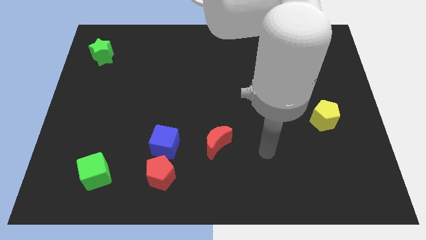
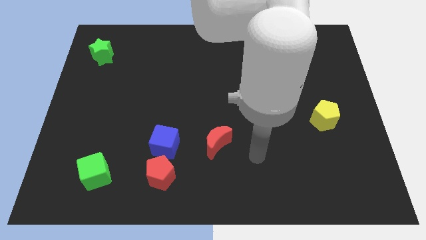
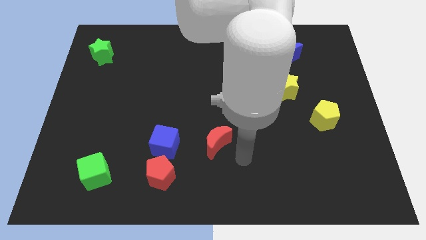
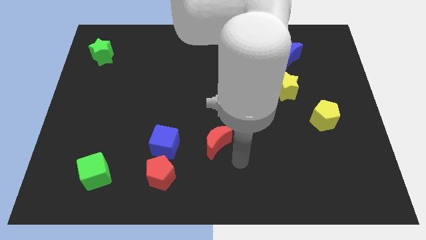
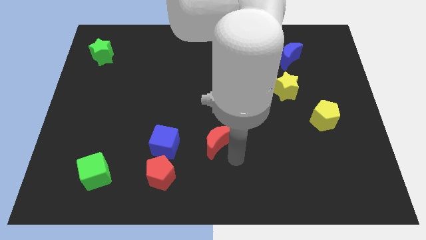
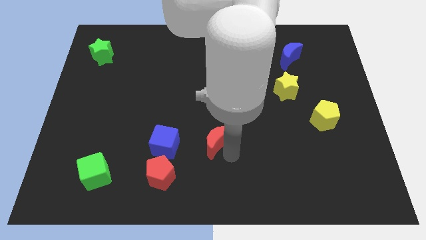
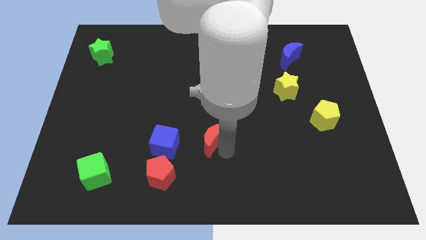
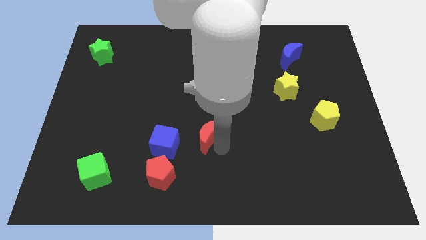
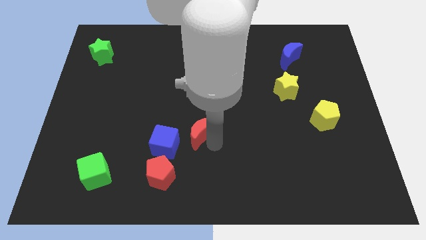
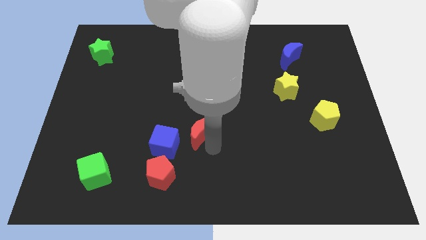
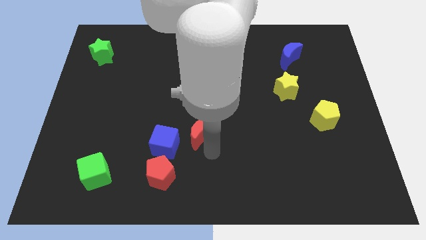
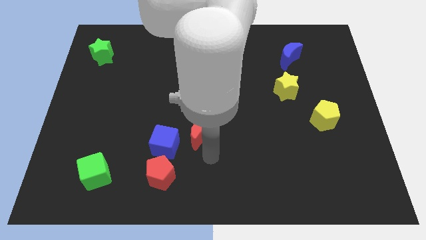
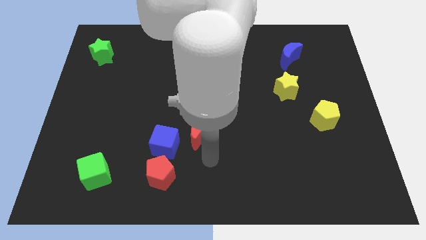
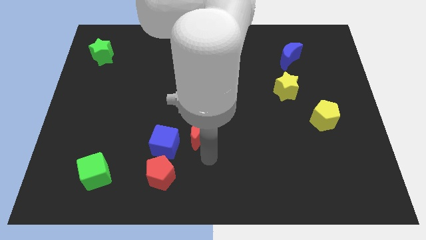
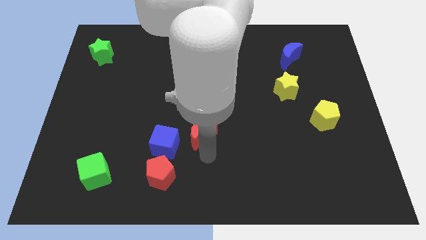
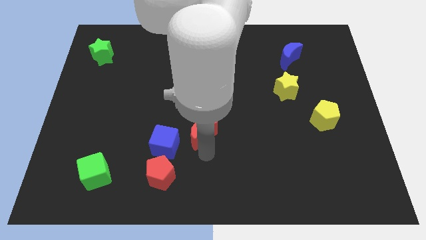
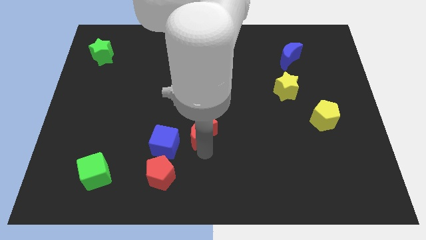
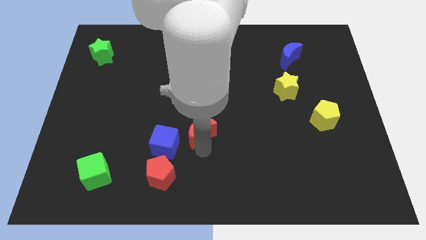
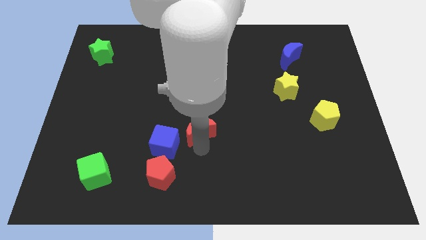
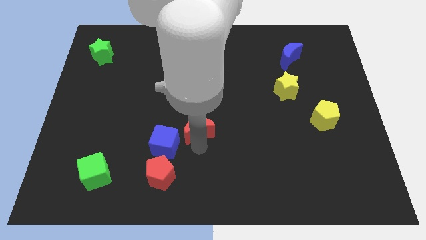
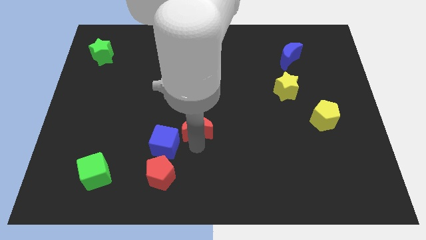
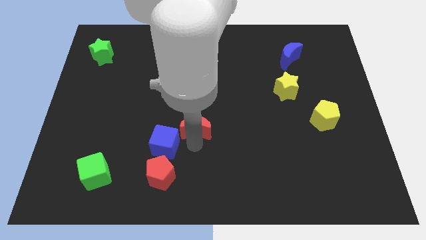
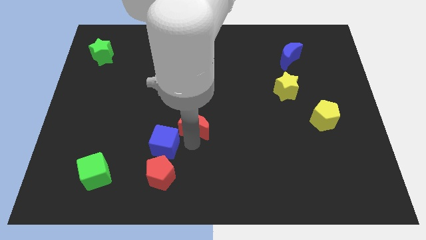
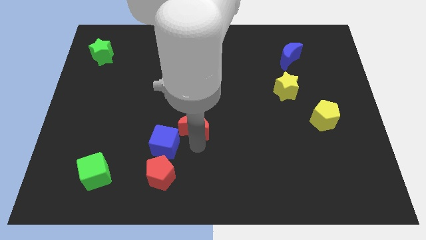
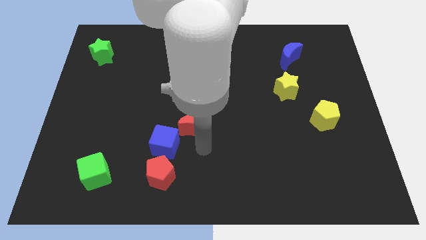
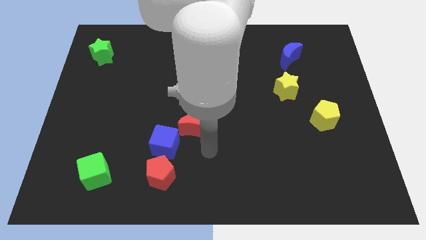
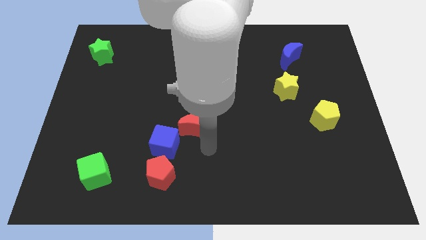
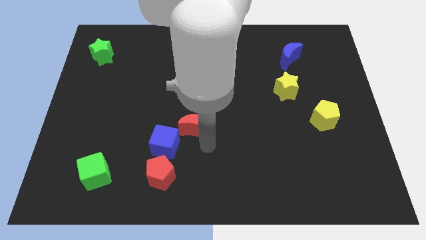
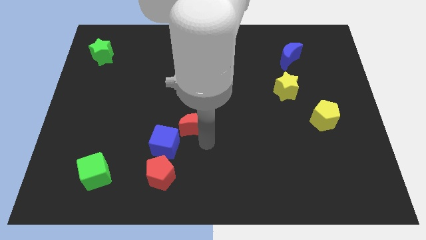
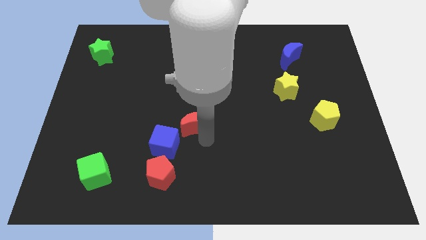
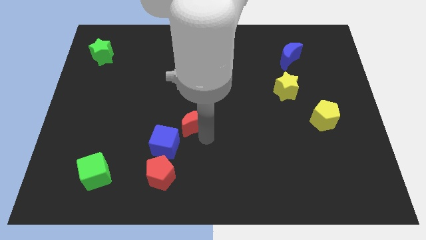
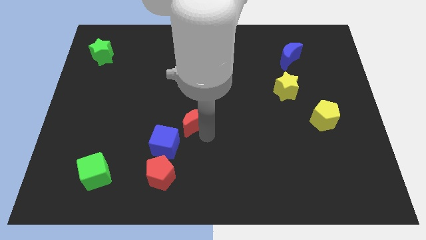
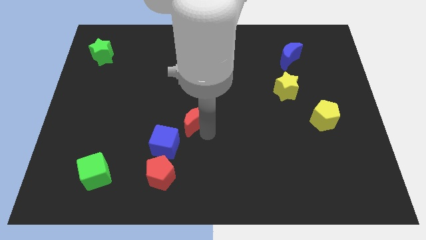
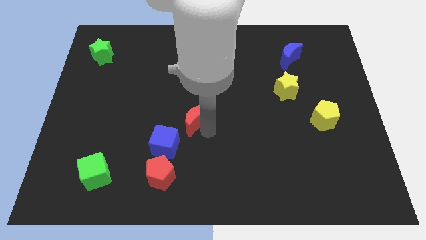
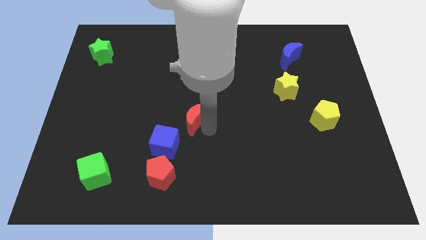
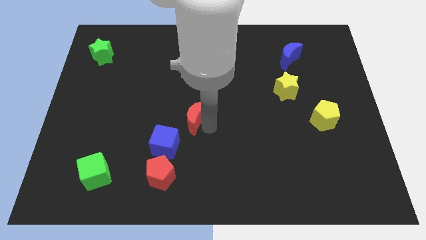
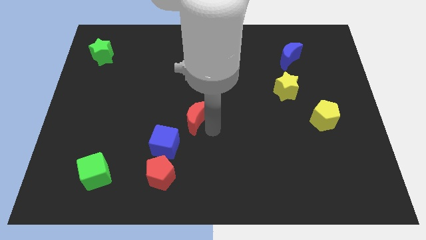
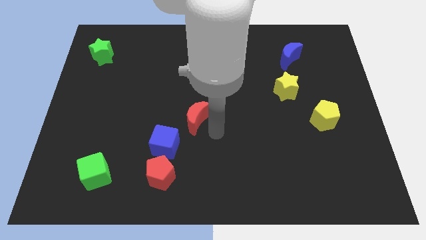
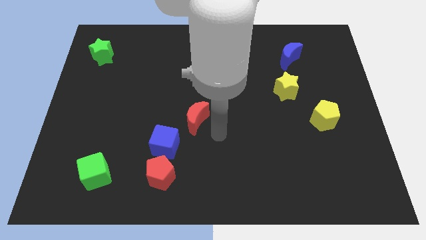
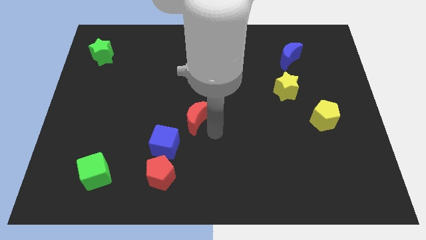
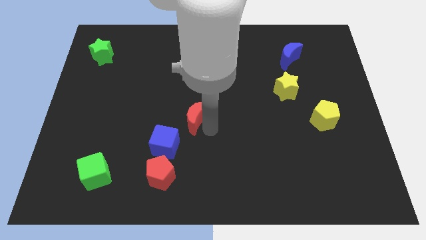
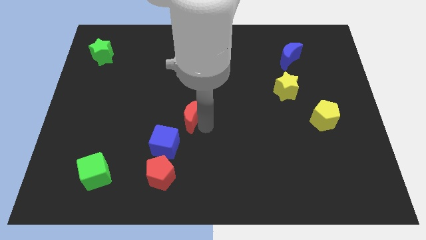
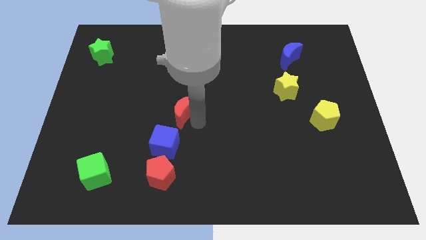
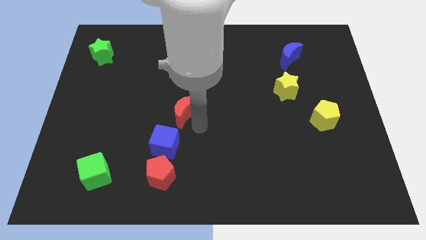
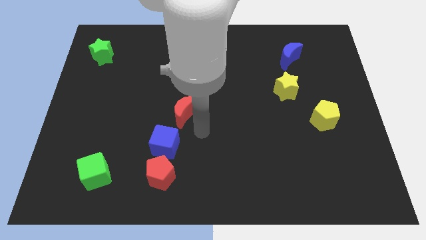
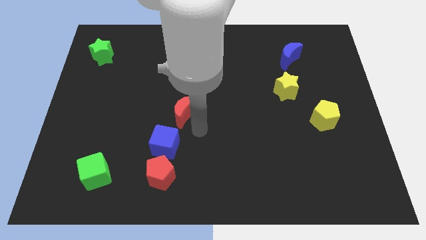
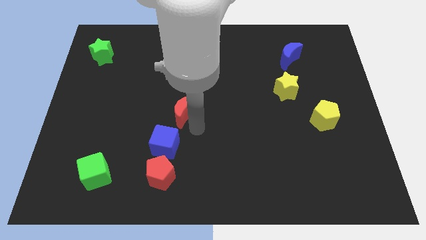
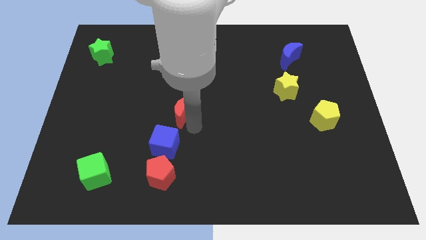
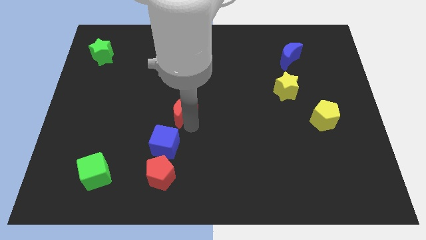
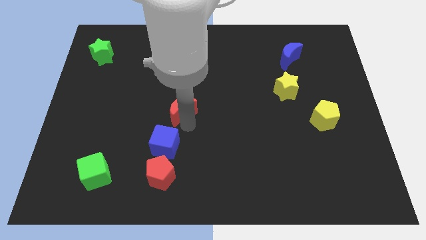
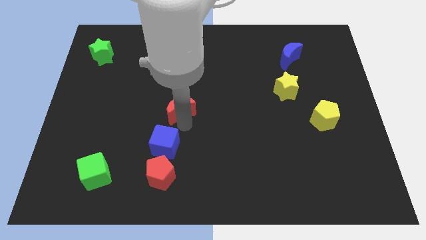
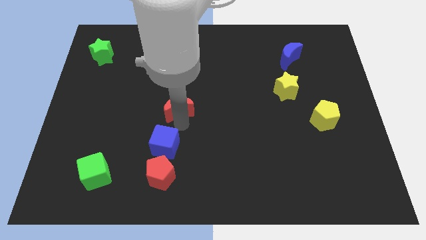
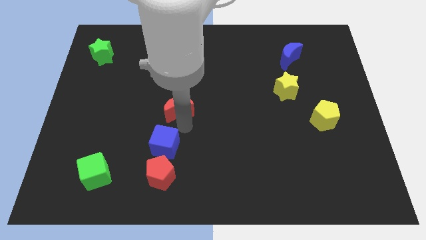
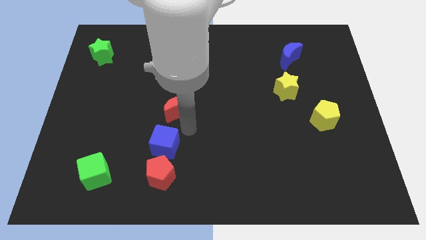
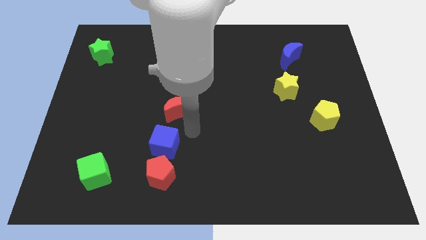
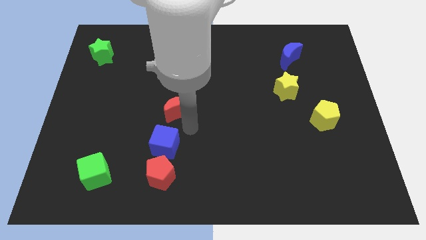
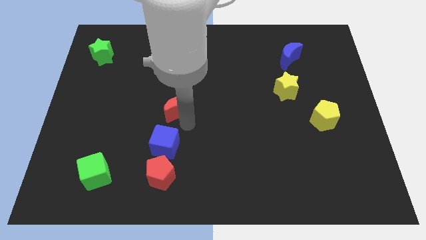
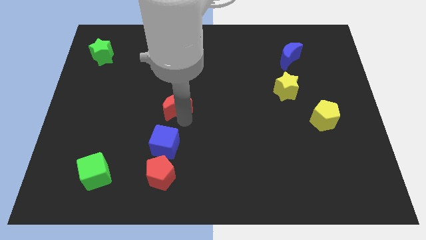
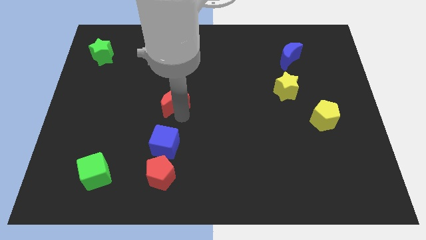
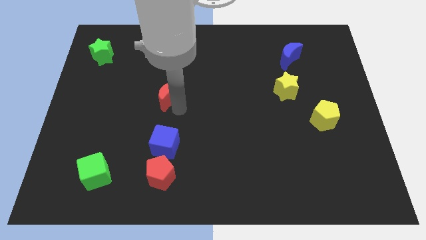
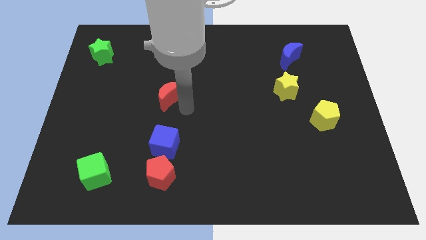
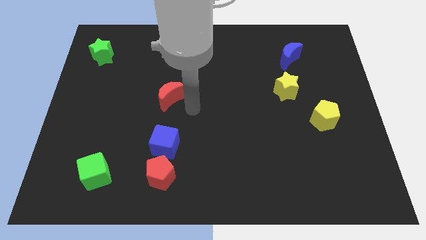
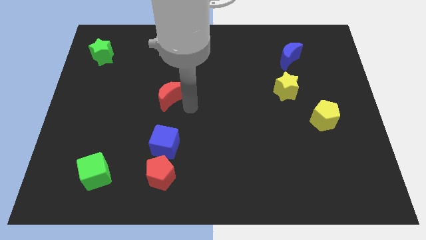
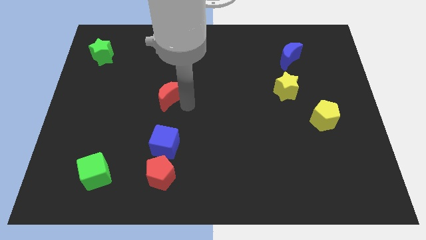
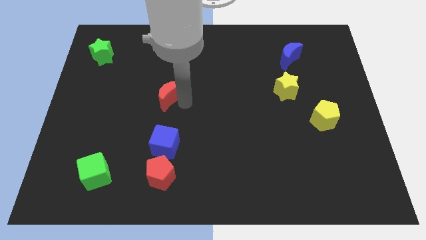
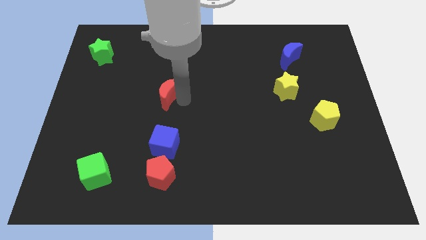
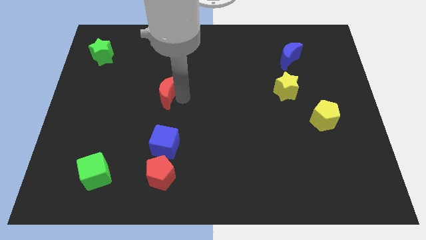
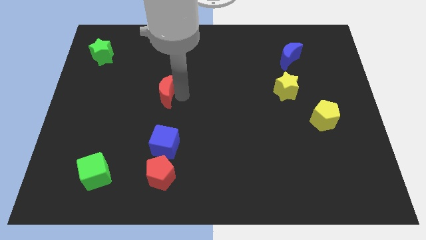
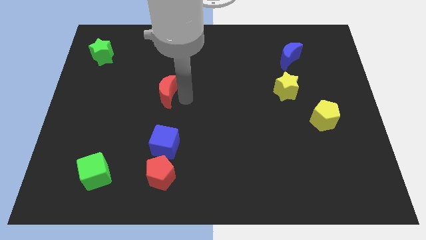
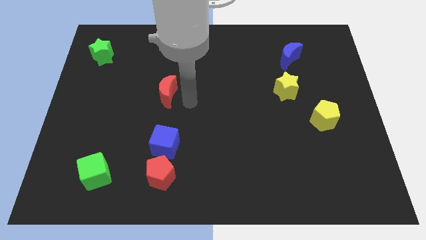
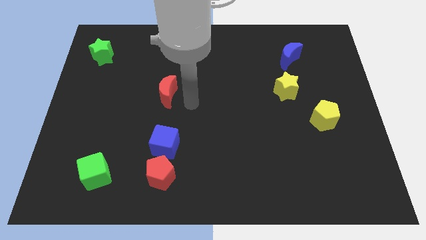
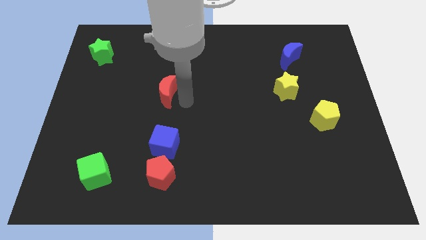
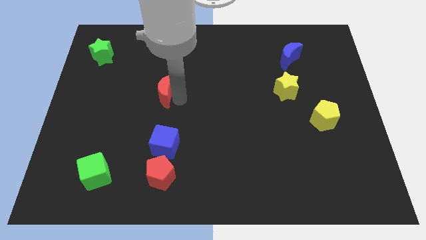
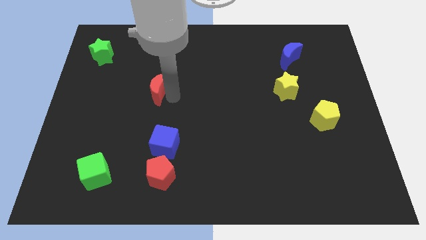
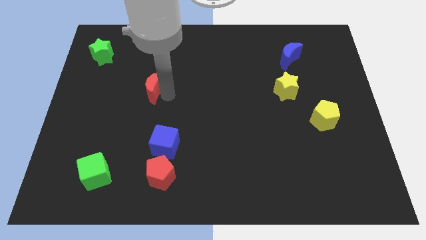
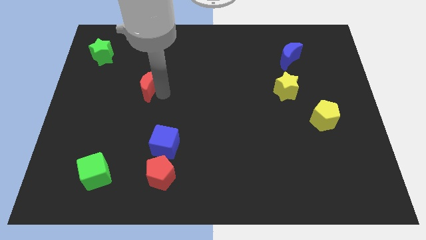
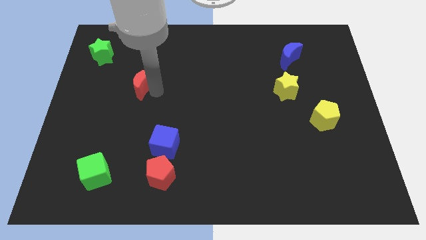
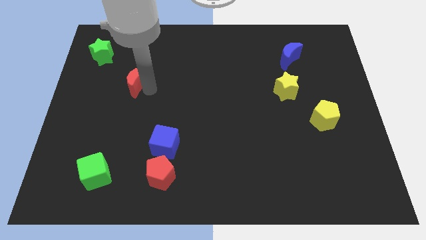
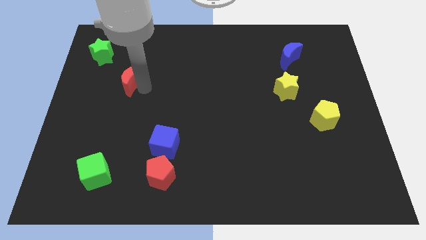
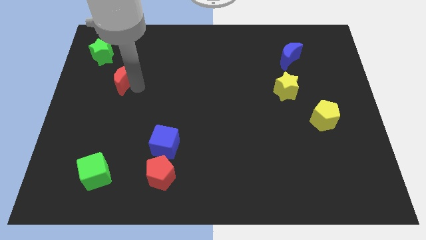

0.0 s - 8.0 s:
put the red moon to the bottom right of the green star
